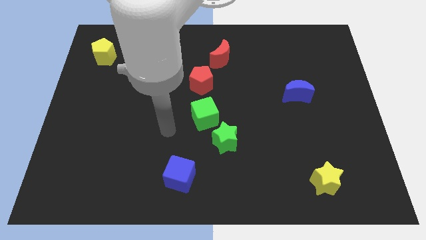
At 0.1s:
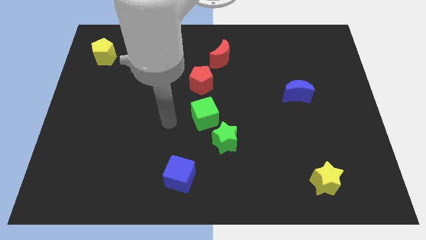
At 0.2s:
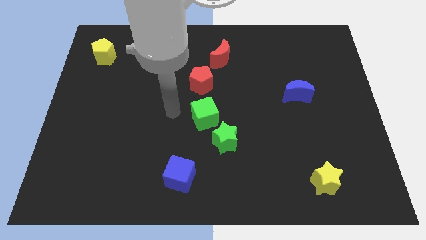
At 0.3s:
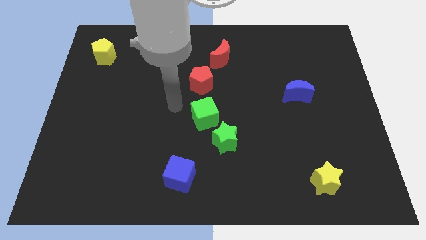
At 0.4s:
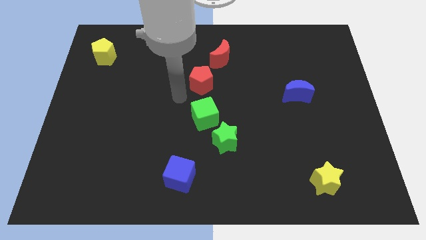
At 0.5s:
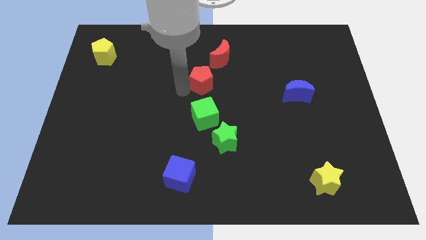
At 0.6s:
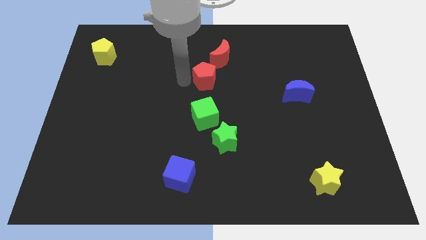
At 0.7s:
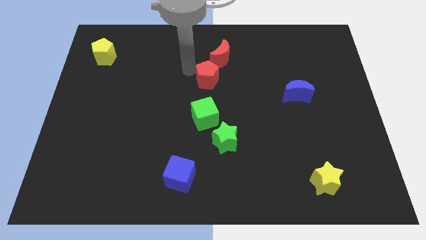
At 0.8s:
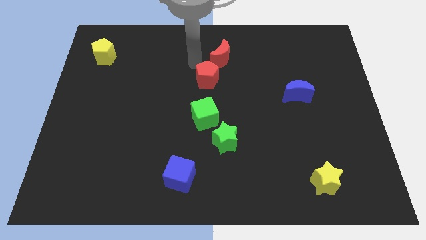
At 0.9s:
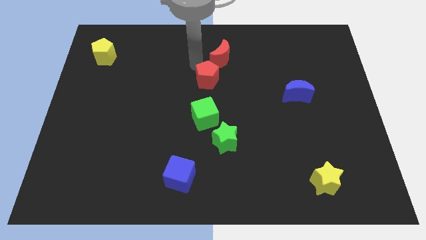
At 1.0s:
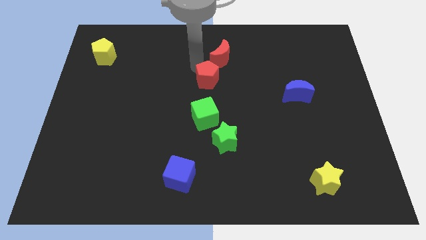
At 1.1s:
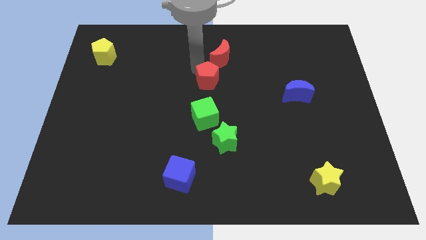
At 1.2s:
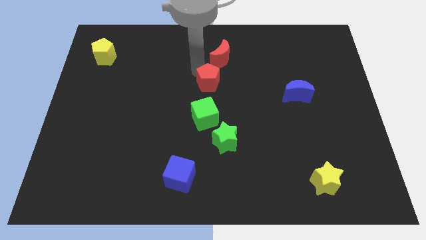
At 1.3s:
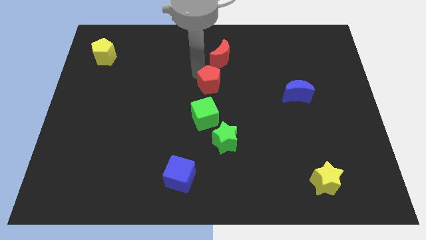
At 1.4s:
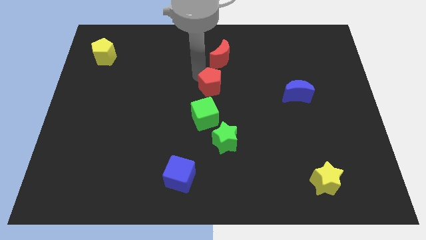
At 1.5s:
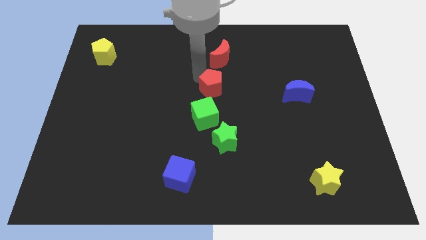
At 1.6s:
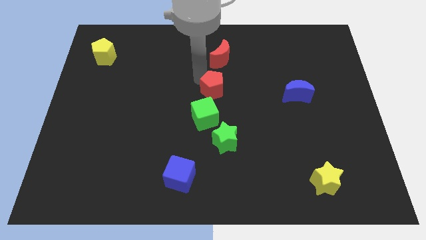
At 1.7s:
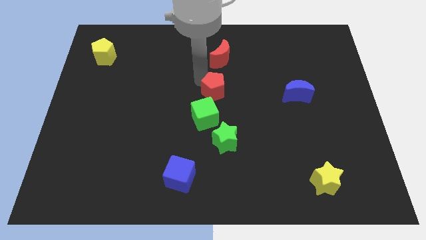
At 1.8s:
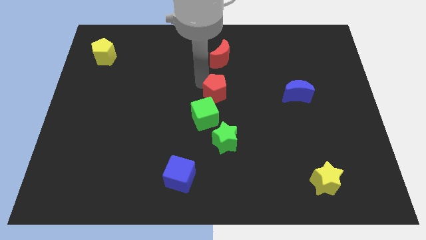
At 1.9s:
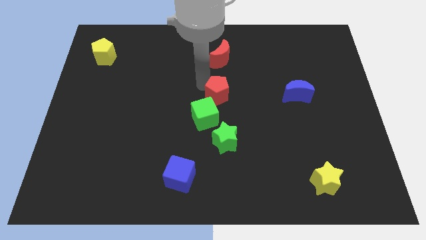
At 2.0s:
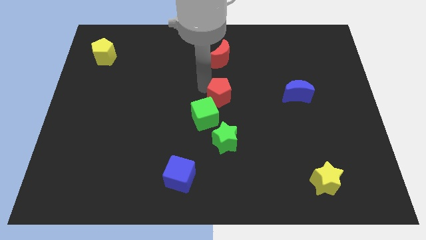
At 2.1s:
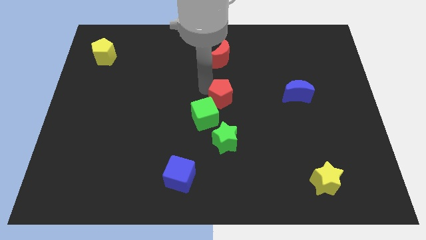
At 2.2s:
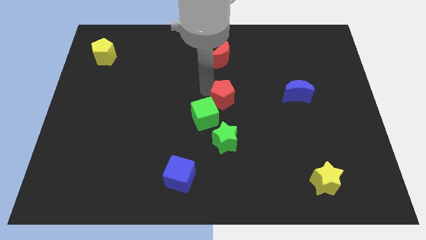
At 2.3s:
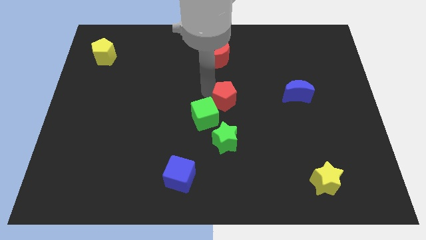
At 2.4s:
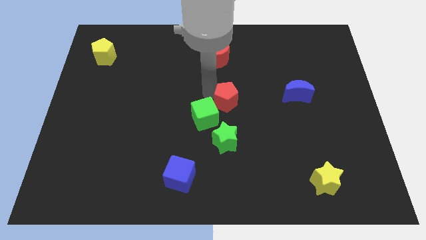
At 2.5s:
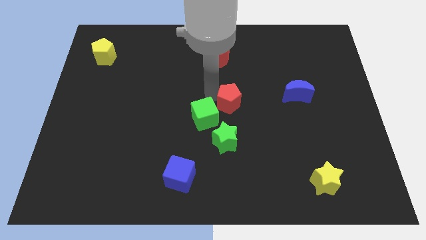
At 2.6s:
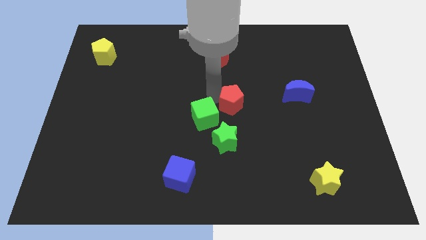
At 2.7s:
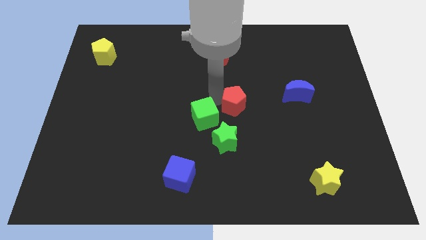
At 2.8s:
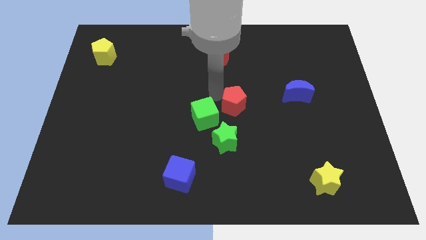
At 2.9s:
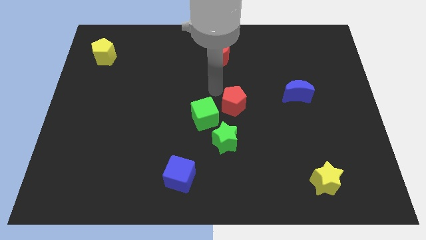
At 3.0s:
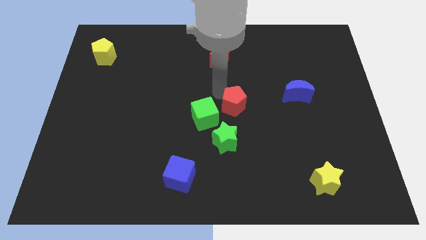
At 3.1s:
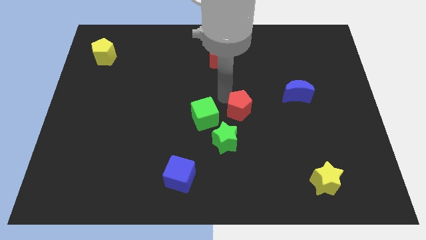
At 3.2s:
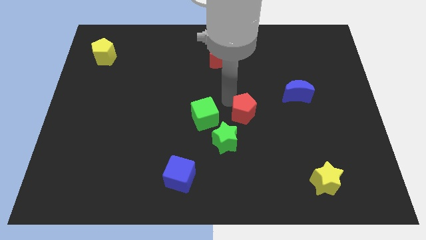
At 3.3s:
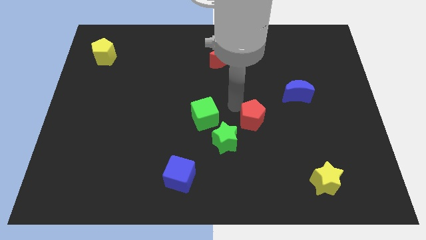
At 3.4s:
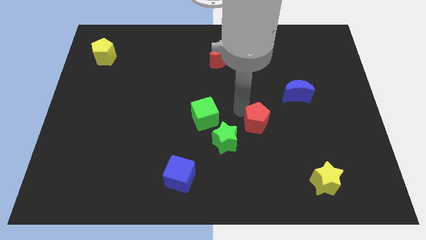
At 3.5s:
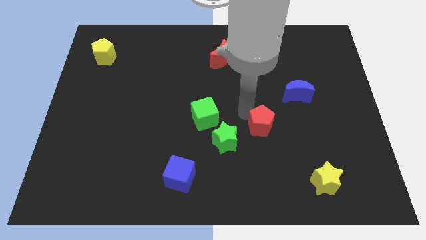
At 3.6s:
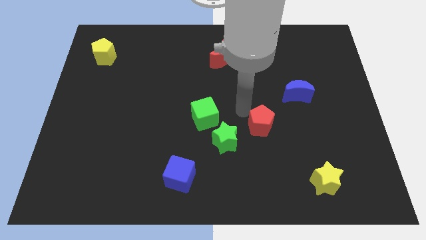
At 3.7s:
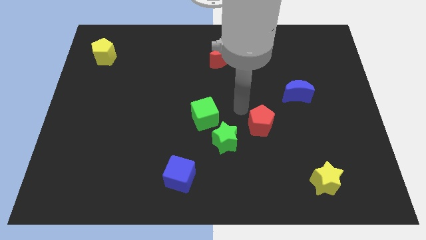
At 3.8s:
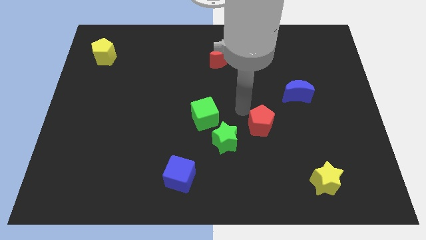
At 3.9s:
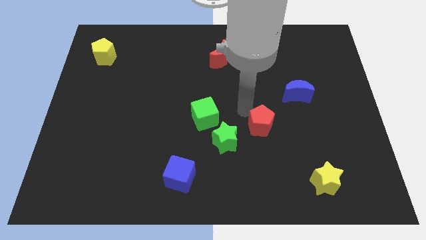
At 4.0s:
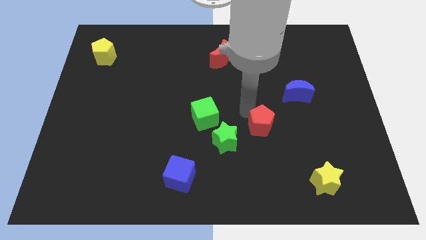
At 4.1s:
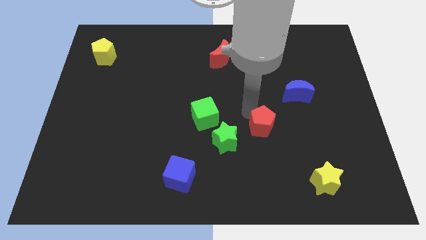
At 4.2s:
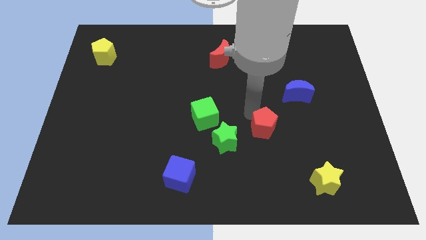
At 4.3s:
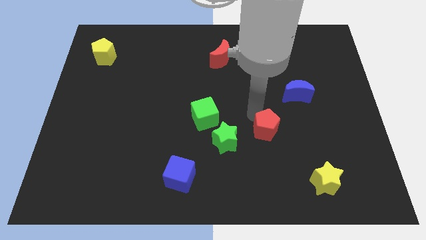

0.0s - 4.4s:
push the red pentagon down and right diagonally

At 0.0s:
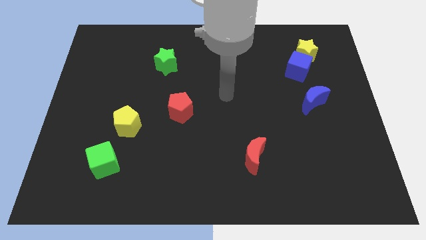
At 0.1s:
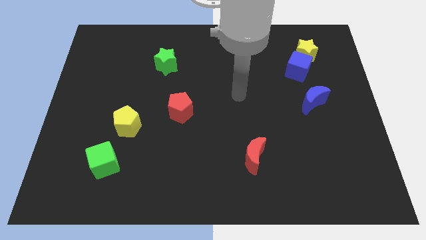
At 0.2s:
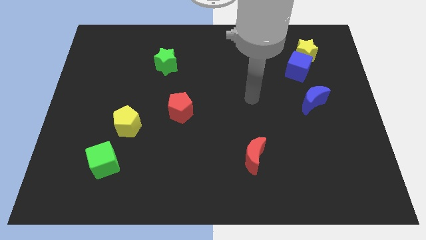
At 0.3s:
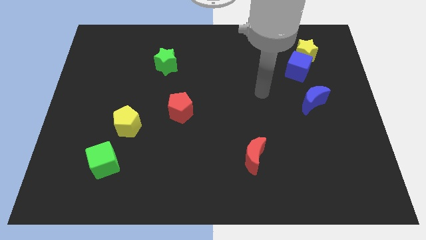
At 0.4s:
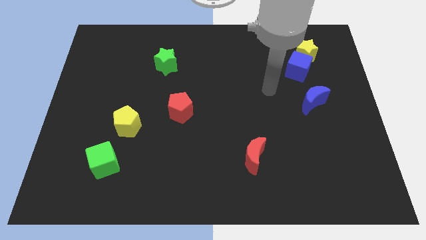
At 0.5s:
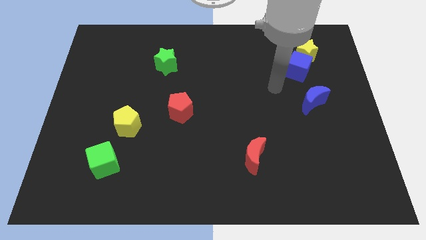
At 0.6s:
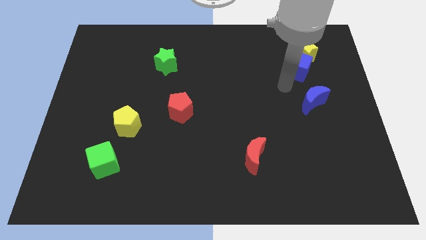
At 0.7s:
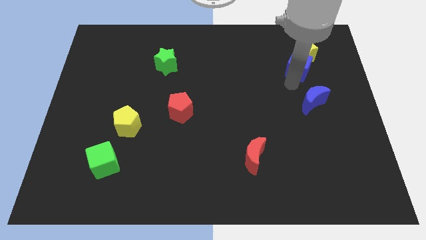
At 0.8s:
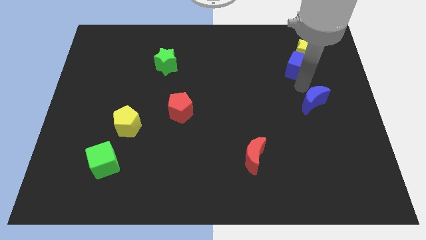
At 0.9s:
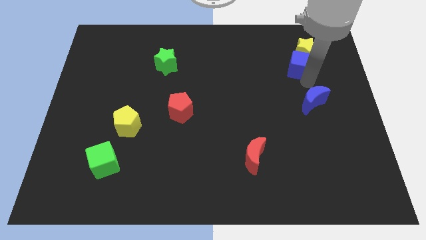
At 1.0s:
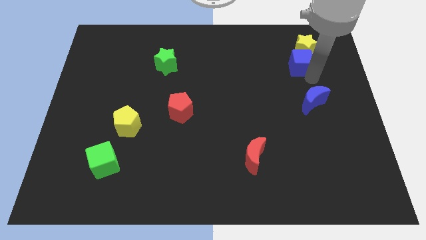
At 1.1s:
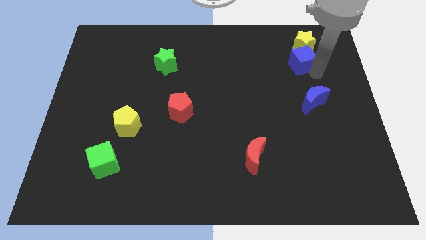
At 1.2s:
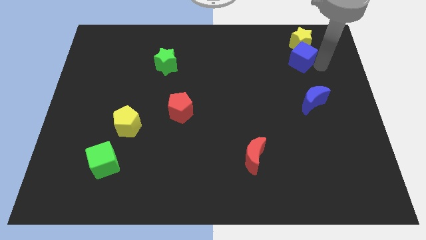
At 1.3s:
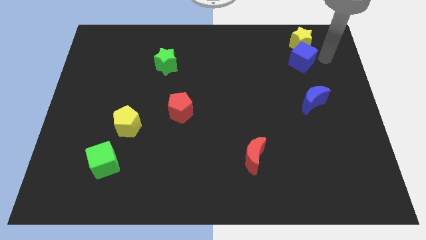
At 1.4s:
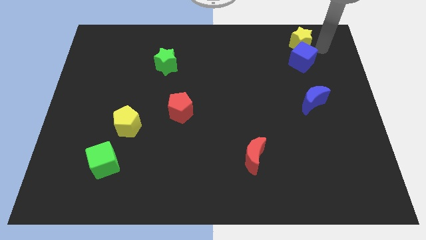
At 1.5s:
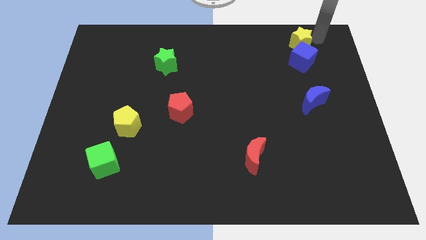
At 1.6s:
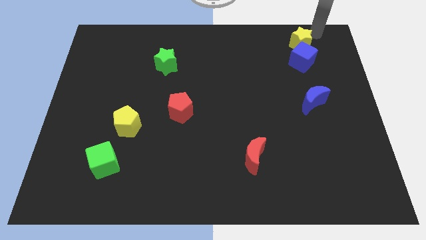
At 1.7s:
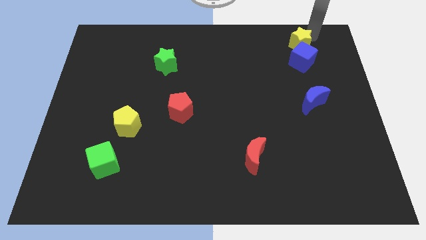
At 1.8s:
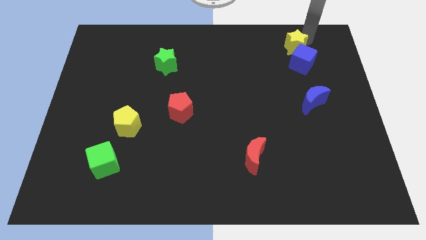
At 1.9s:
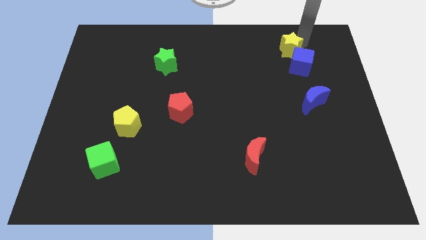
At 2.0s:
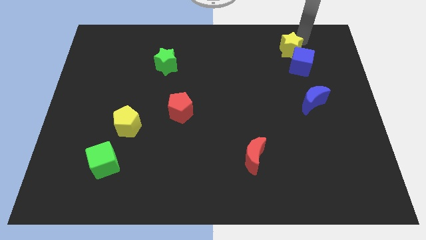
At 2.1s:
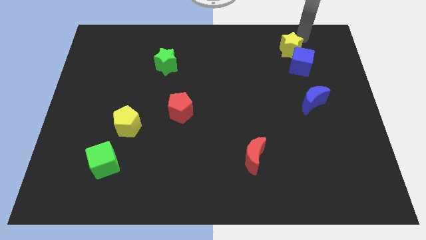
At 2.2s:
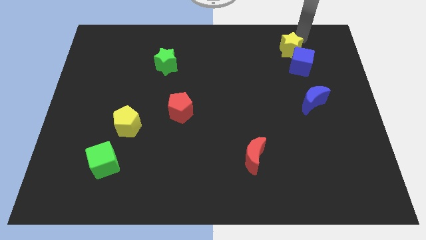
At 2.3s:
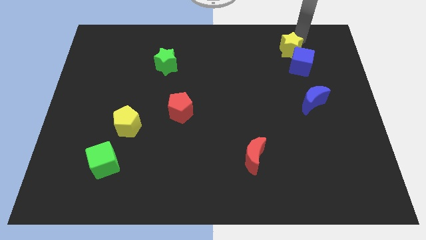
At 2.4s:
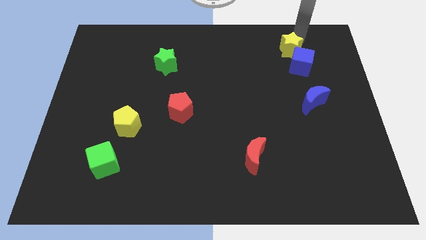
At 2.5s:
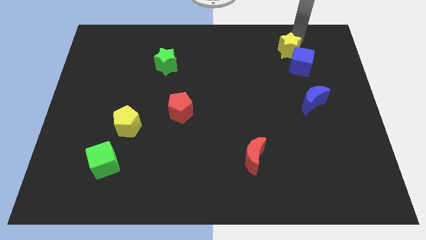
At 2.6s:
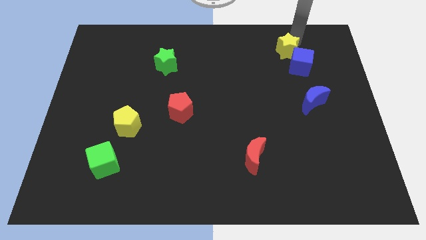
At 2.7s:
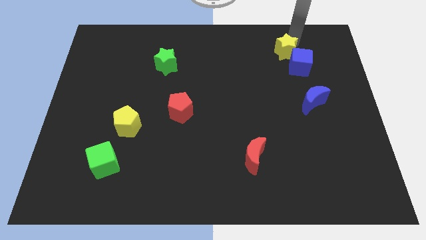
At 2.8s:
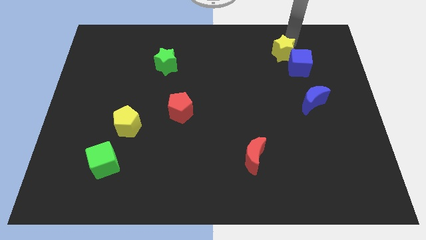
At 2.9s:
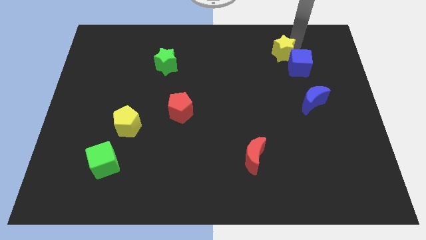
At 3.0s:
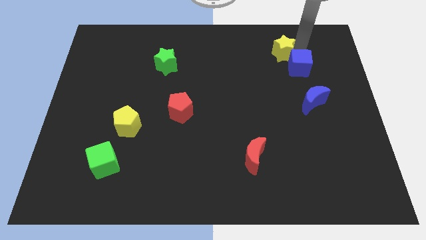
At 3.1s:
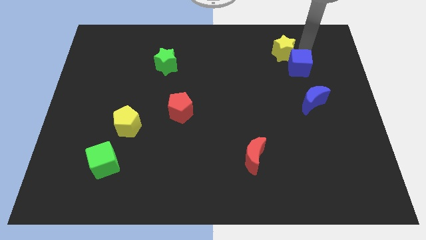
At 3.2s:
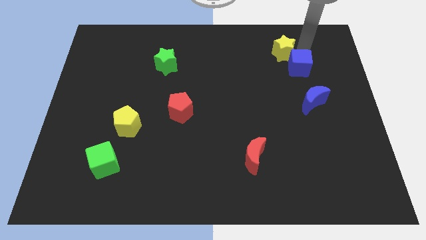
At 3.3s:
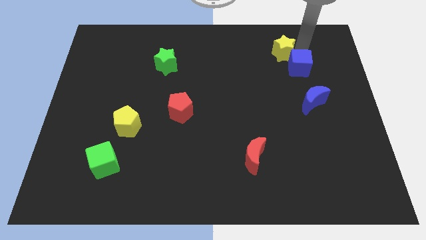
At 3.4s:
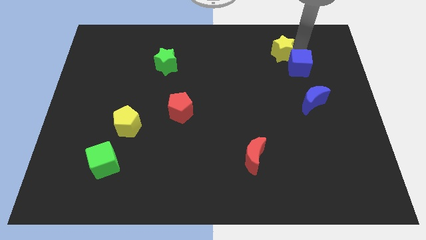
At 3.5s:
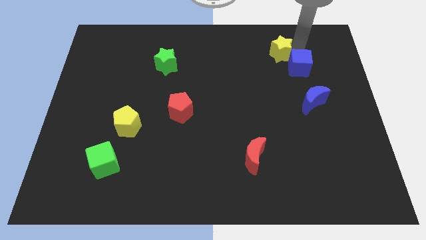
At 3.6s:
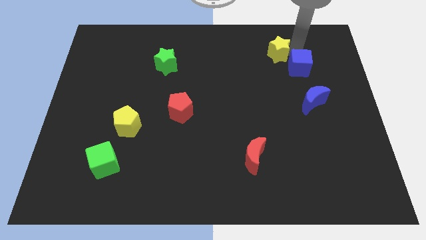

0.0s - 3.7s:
push the yellow star somewhat to the left
